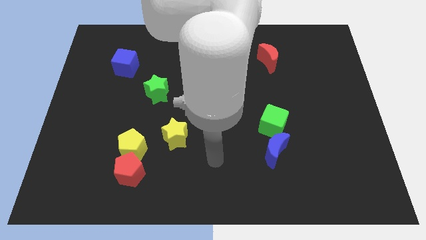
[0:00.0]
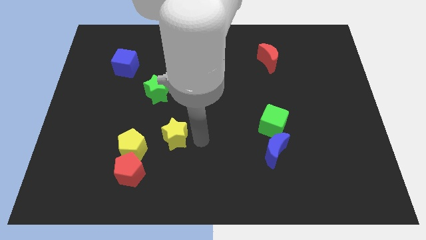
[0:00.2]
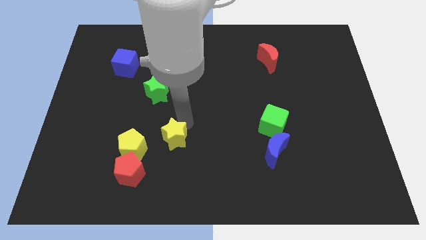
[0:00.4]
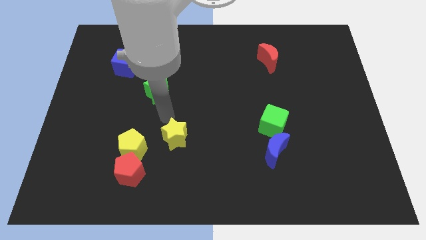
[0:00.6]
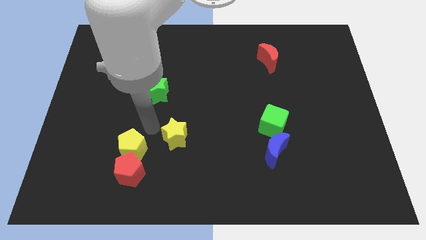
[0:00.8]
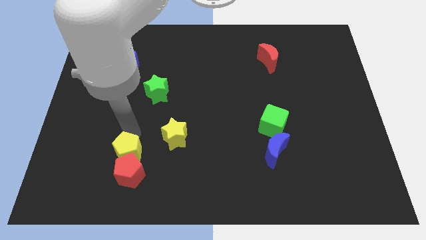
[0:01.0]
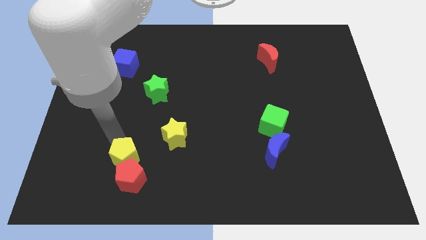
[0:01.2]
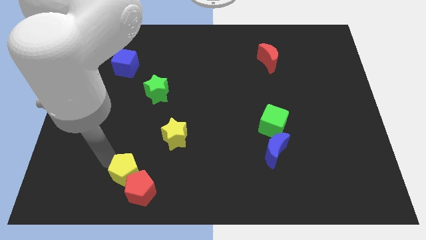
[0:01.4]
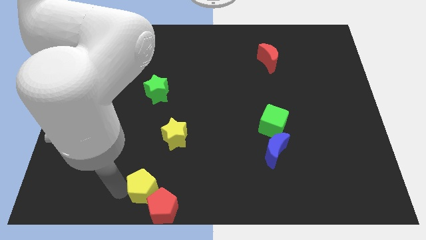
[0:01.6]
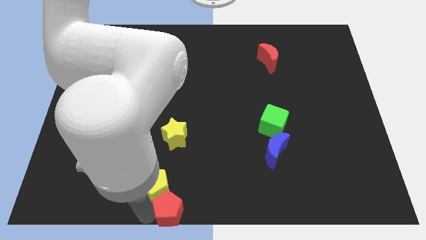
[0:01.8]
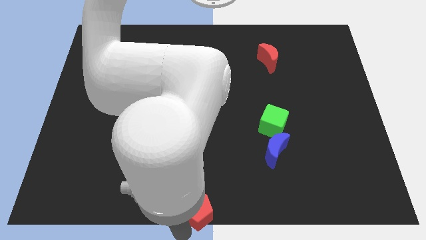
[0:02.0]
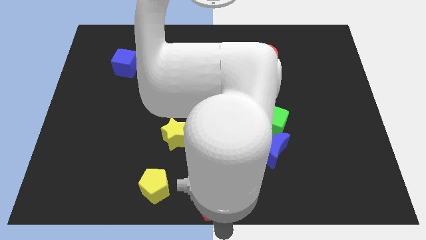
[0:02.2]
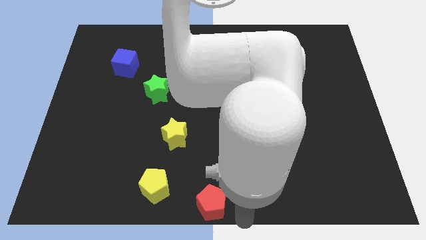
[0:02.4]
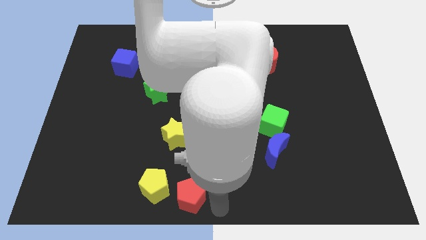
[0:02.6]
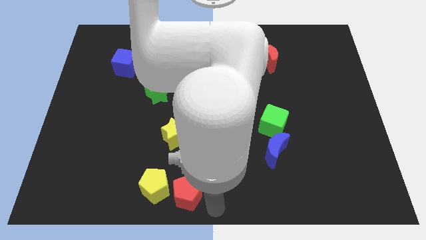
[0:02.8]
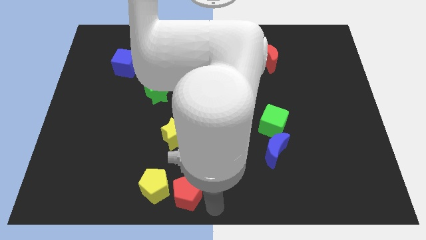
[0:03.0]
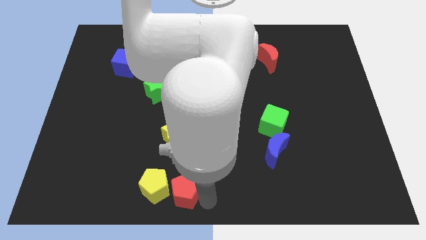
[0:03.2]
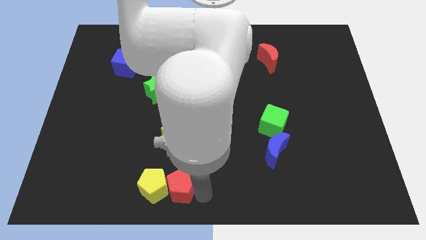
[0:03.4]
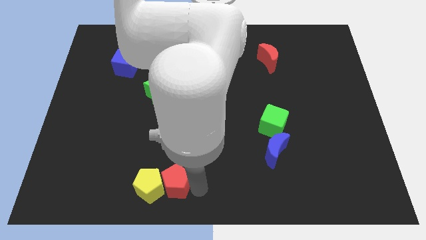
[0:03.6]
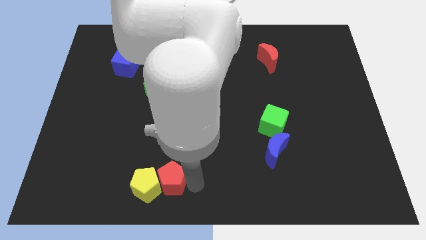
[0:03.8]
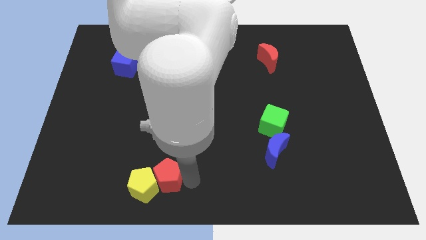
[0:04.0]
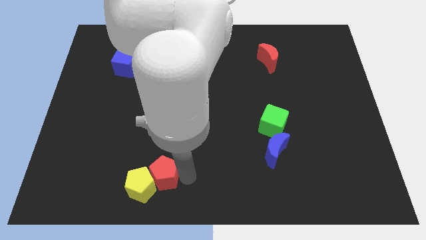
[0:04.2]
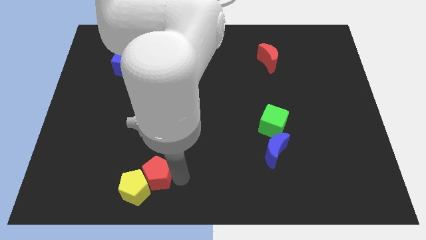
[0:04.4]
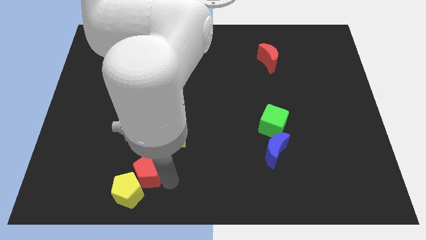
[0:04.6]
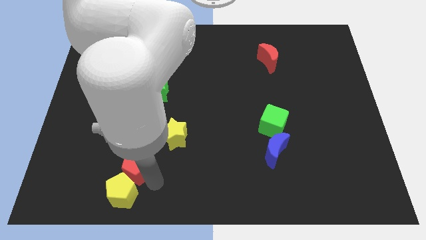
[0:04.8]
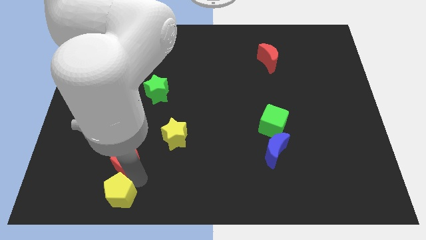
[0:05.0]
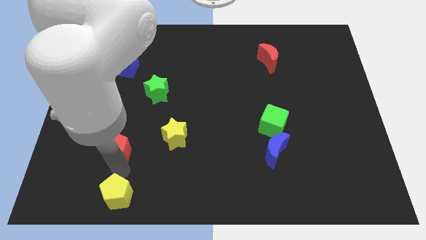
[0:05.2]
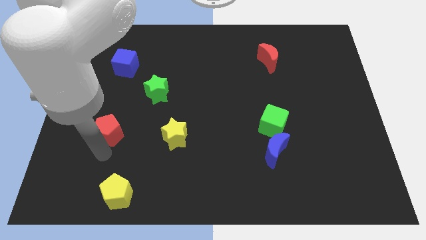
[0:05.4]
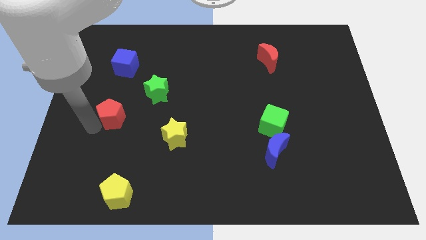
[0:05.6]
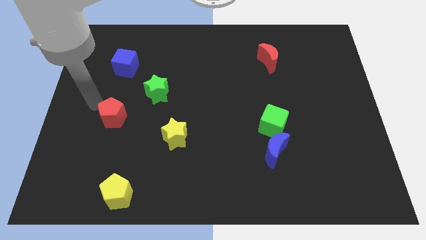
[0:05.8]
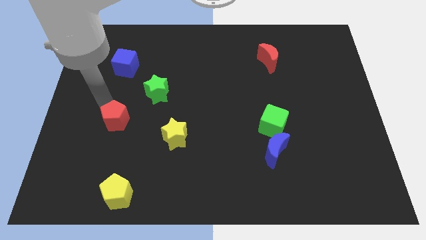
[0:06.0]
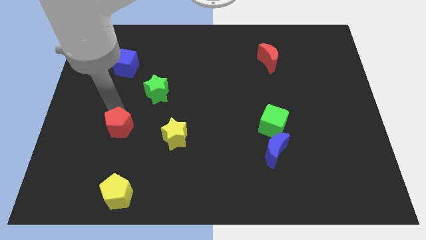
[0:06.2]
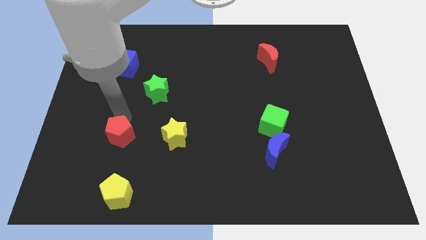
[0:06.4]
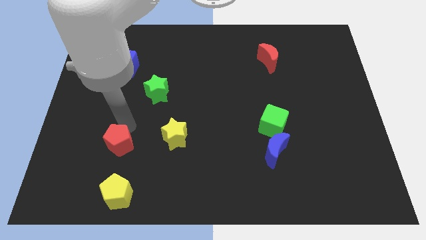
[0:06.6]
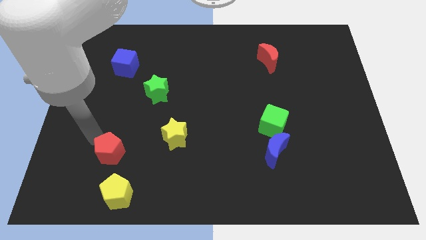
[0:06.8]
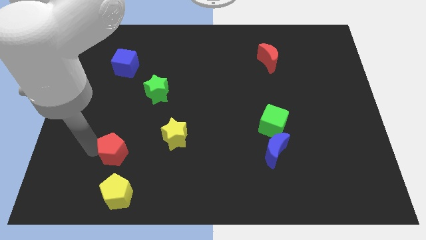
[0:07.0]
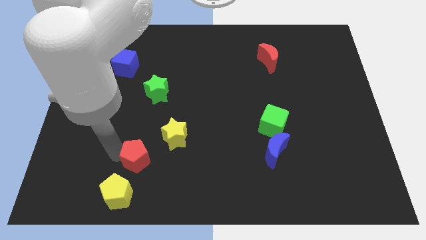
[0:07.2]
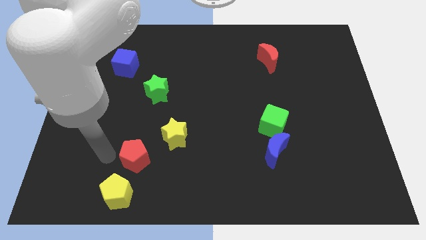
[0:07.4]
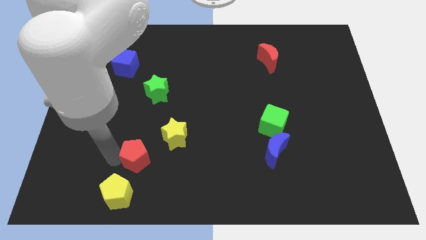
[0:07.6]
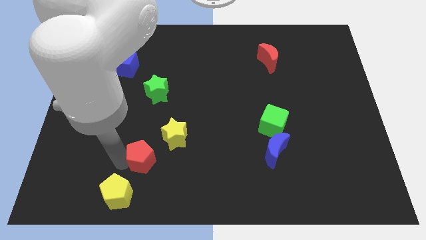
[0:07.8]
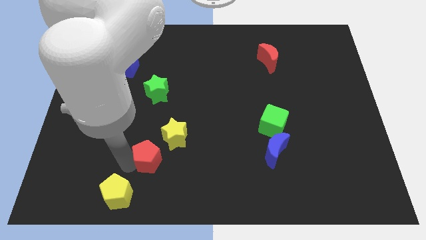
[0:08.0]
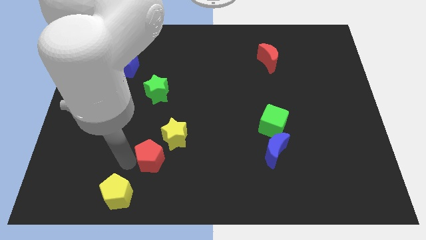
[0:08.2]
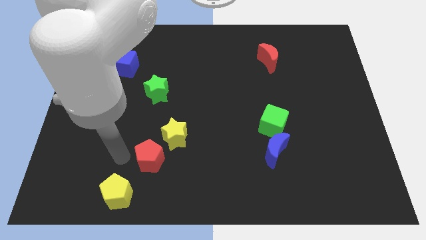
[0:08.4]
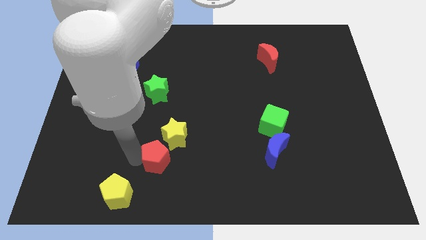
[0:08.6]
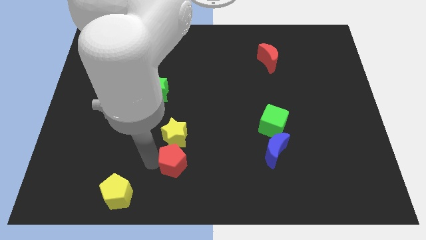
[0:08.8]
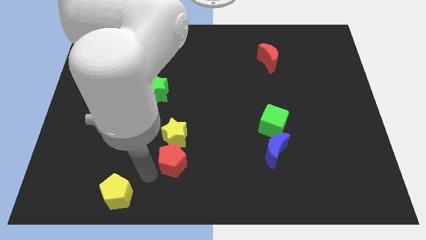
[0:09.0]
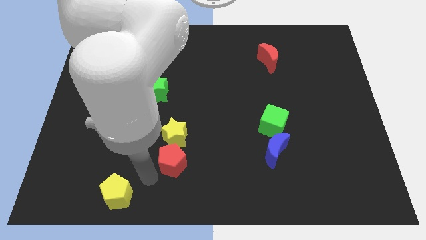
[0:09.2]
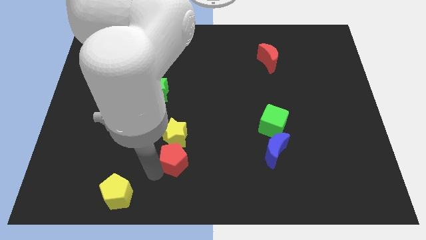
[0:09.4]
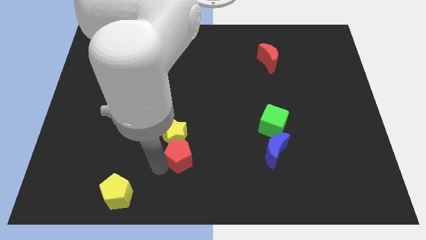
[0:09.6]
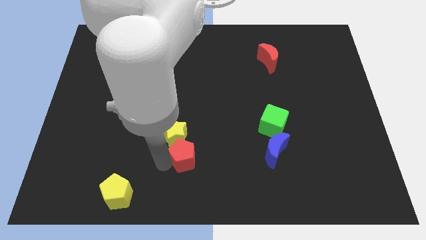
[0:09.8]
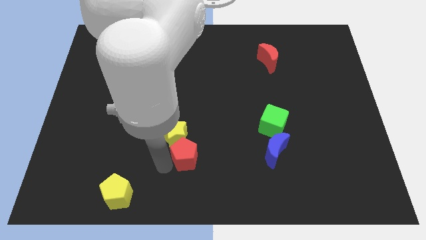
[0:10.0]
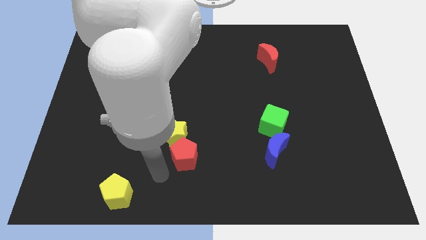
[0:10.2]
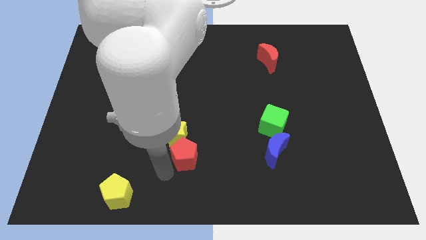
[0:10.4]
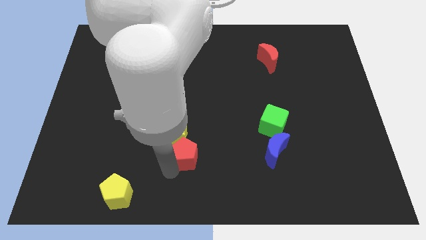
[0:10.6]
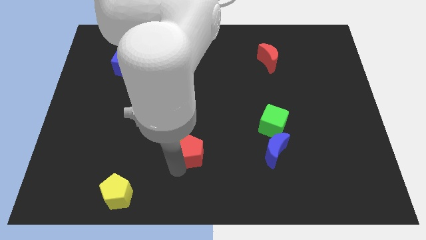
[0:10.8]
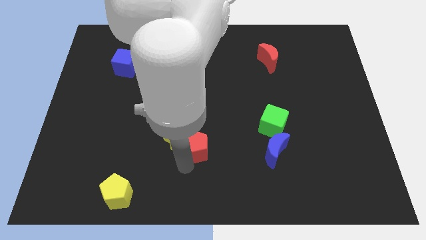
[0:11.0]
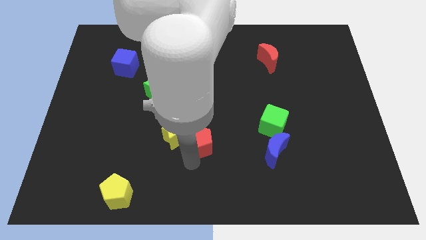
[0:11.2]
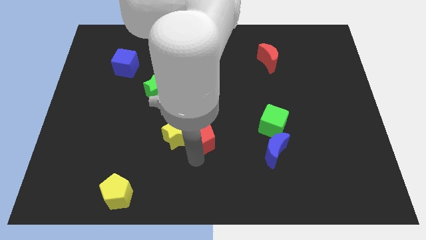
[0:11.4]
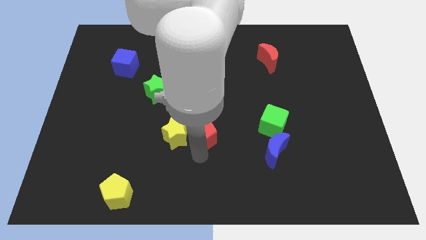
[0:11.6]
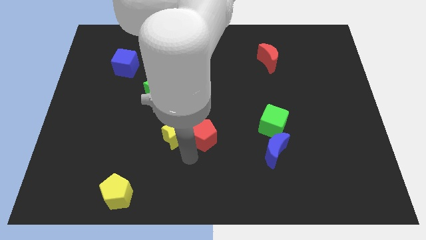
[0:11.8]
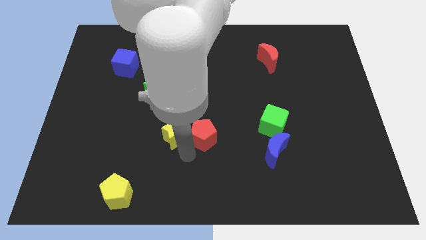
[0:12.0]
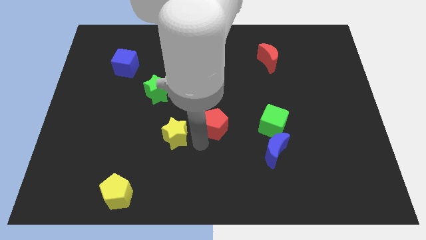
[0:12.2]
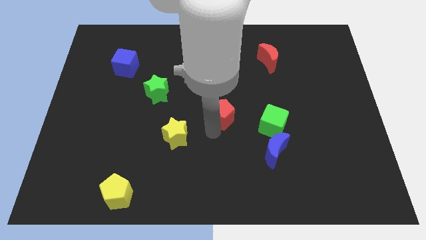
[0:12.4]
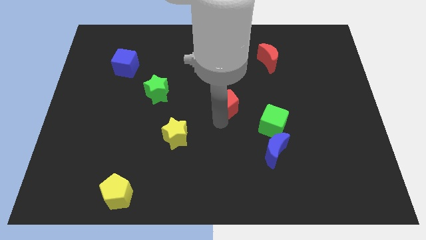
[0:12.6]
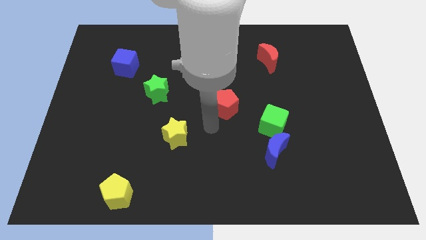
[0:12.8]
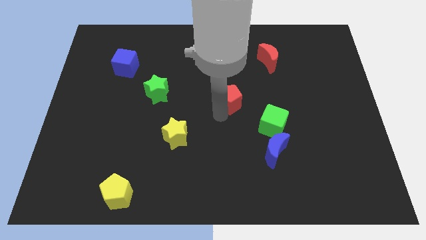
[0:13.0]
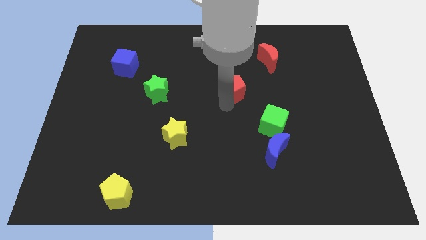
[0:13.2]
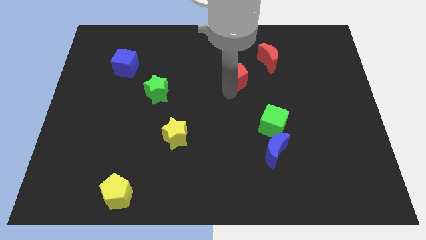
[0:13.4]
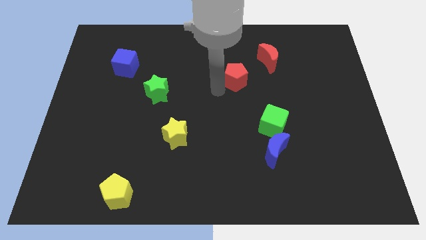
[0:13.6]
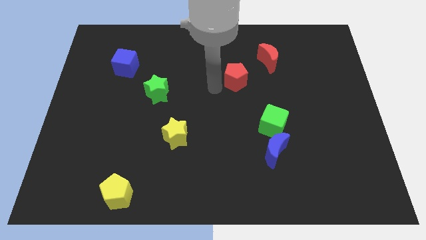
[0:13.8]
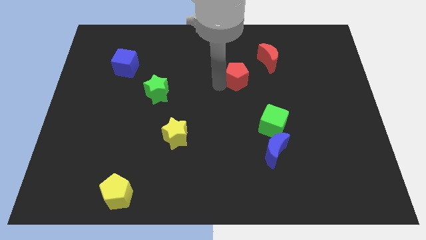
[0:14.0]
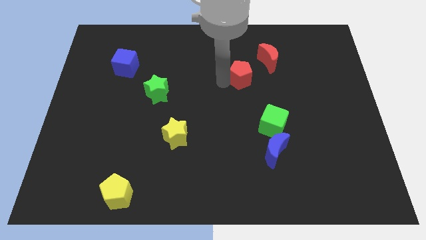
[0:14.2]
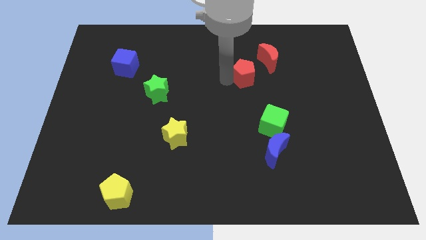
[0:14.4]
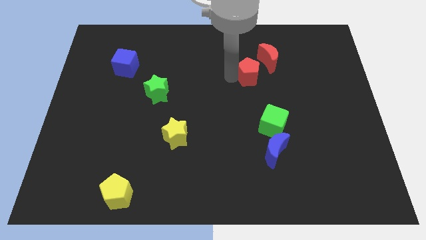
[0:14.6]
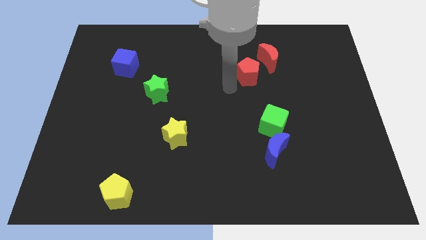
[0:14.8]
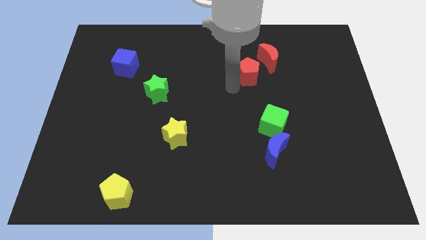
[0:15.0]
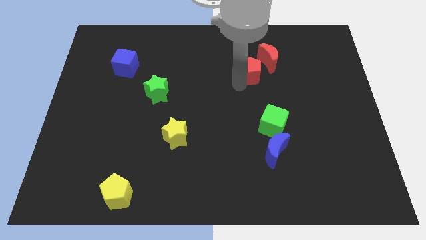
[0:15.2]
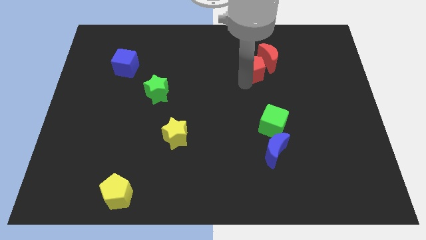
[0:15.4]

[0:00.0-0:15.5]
move the red pentagon close to the red moon
